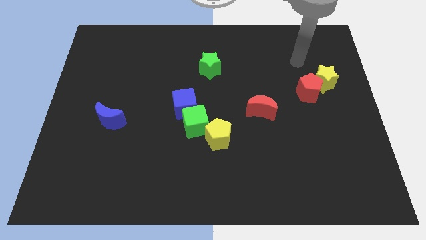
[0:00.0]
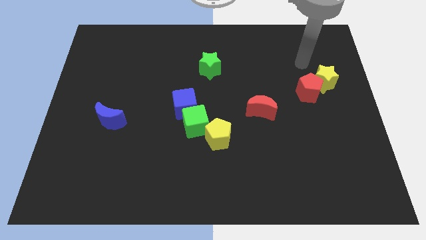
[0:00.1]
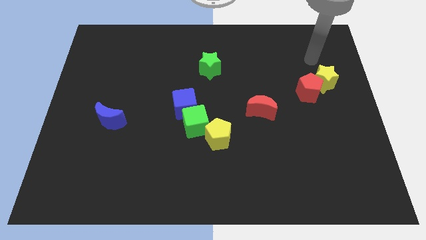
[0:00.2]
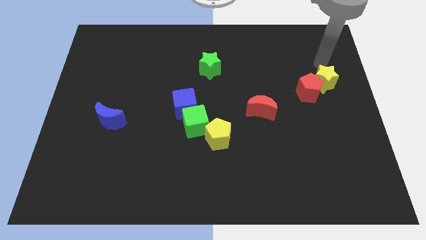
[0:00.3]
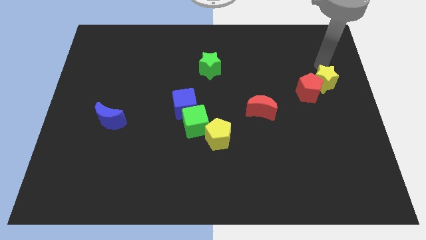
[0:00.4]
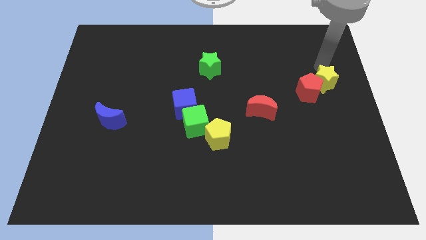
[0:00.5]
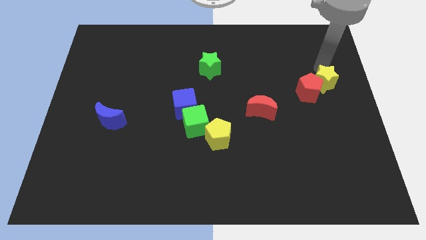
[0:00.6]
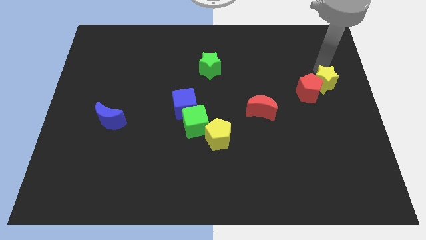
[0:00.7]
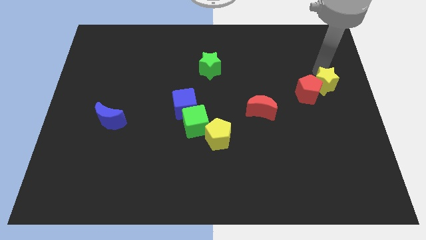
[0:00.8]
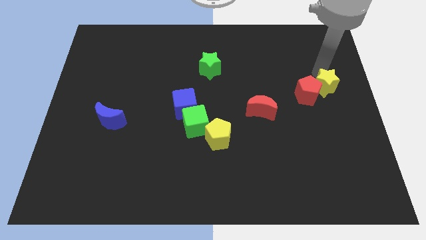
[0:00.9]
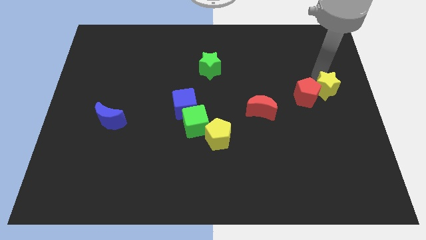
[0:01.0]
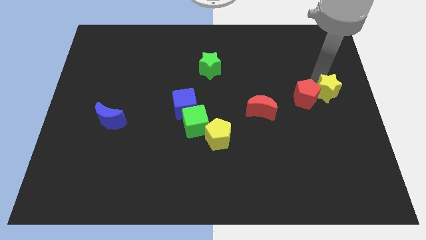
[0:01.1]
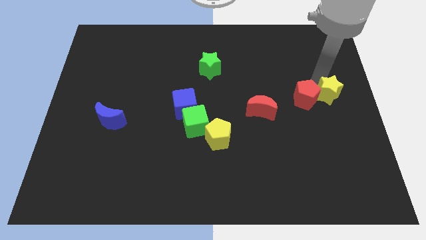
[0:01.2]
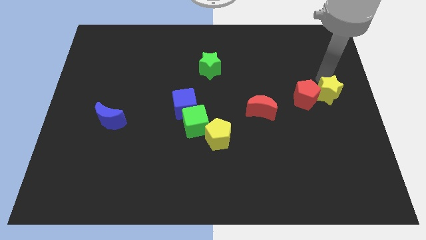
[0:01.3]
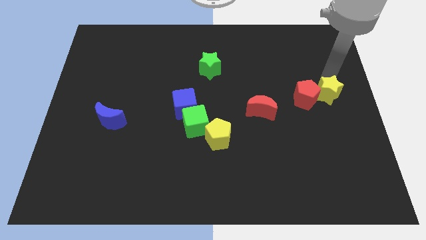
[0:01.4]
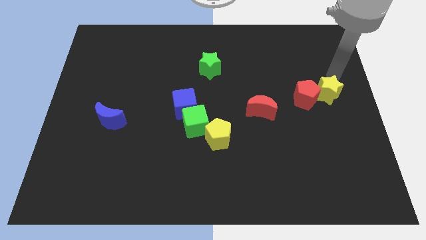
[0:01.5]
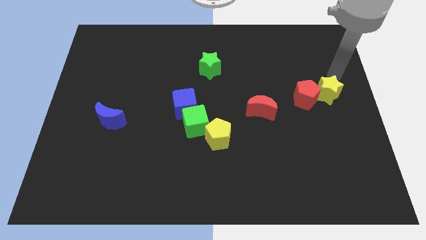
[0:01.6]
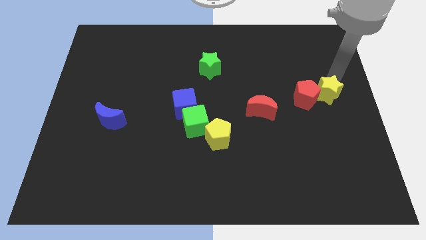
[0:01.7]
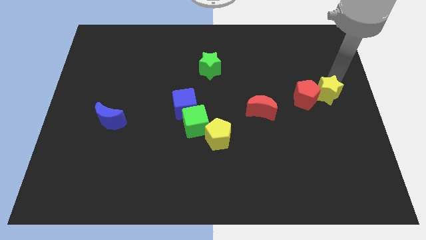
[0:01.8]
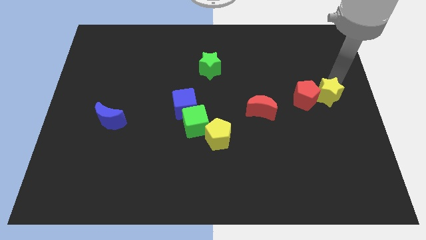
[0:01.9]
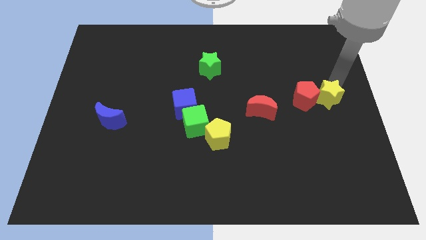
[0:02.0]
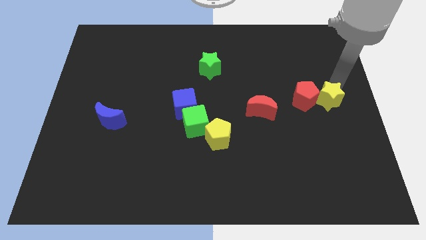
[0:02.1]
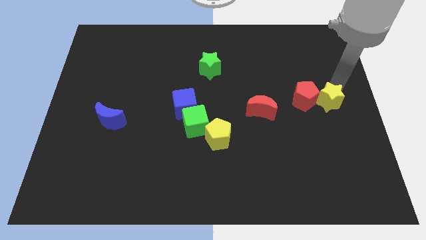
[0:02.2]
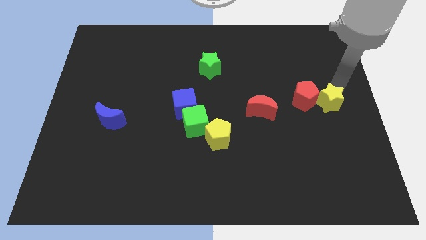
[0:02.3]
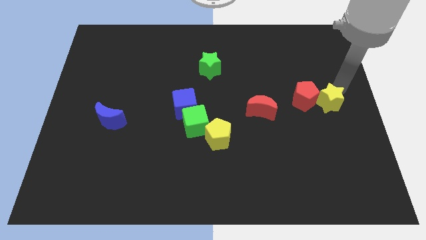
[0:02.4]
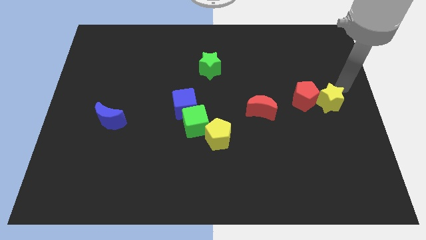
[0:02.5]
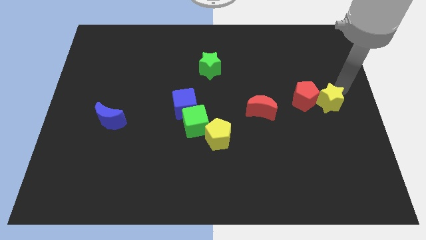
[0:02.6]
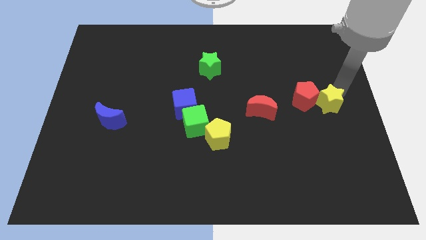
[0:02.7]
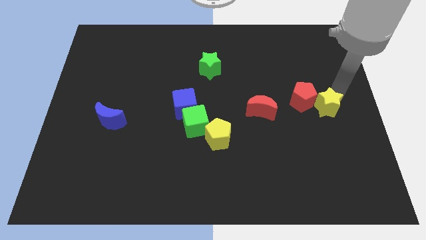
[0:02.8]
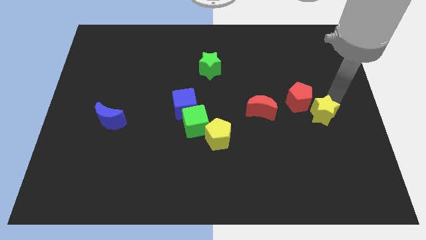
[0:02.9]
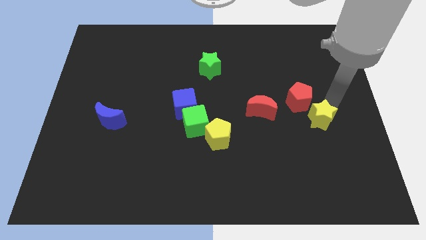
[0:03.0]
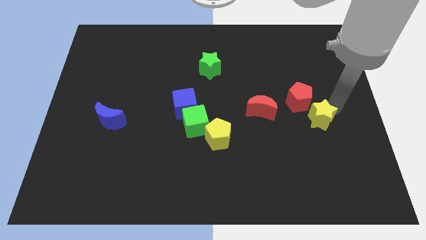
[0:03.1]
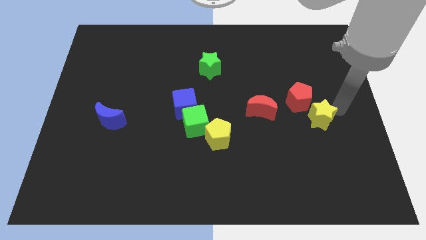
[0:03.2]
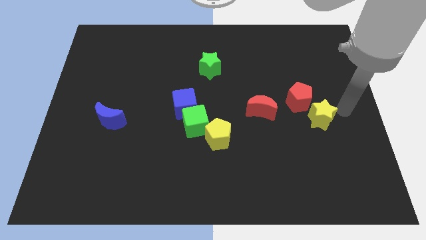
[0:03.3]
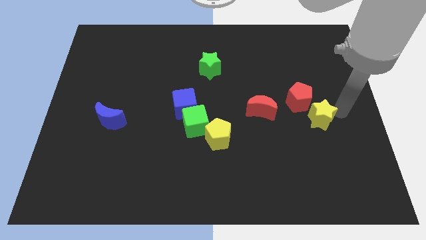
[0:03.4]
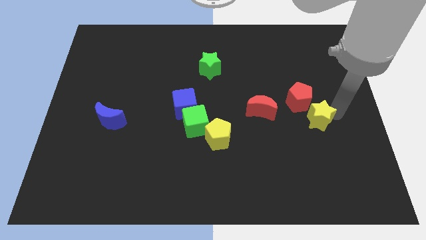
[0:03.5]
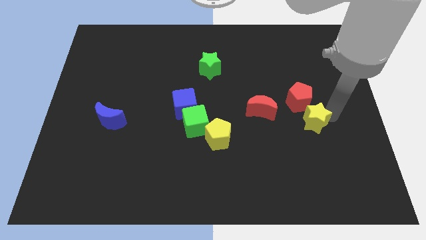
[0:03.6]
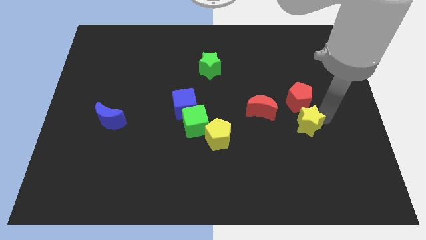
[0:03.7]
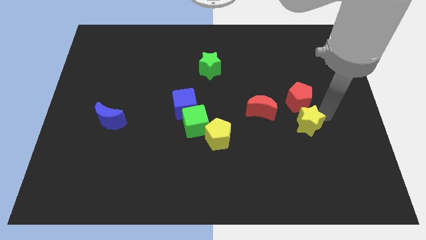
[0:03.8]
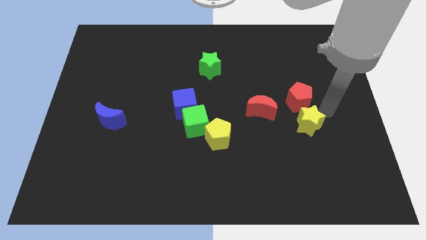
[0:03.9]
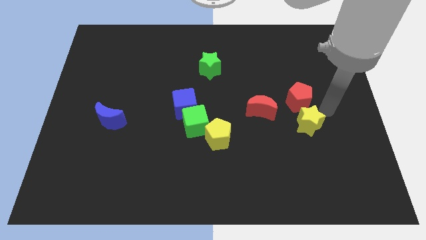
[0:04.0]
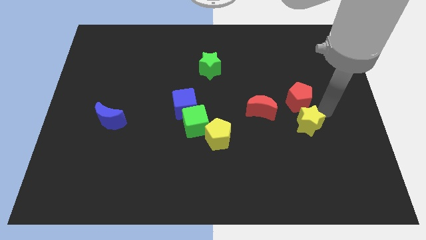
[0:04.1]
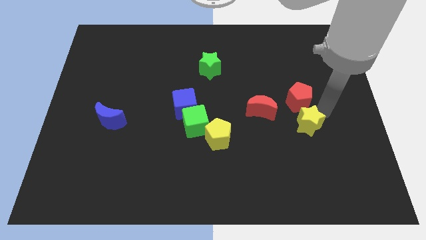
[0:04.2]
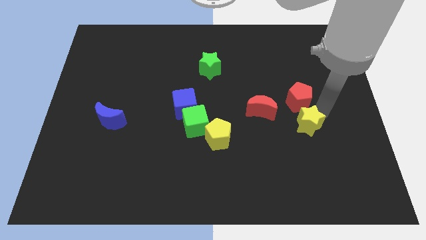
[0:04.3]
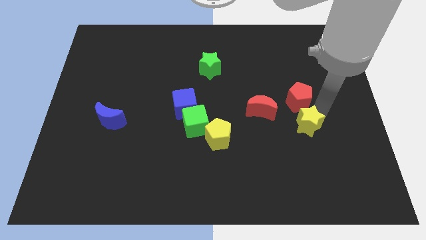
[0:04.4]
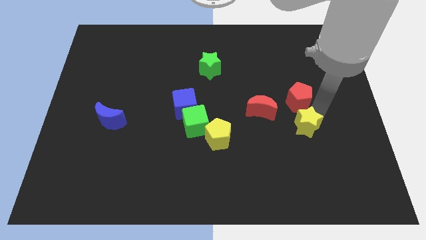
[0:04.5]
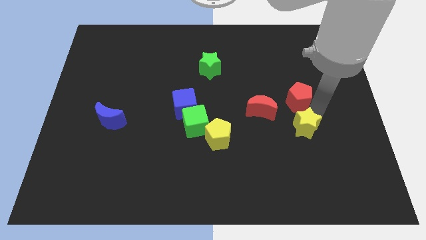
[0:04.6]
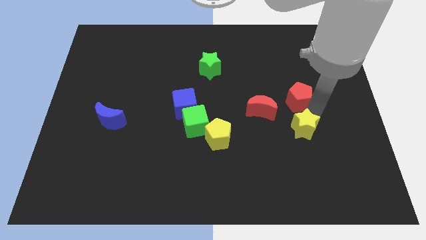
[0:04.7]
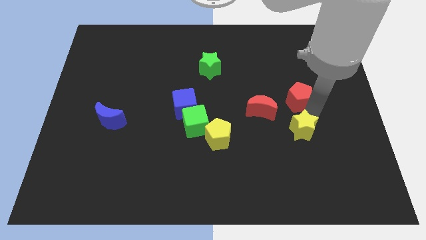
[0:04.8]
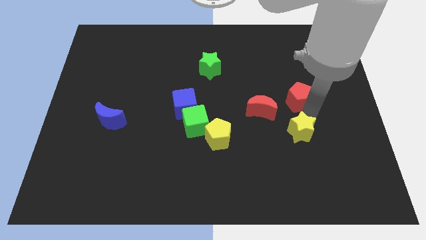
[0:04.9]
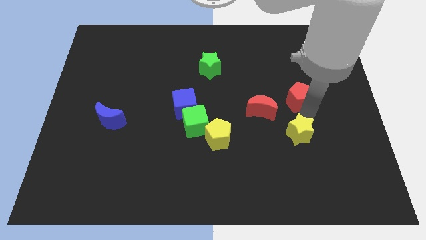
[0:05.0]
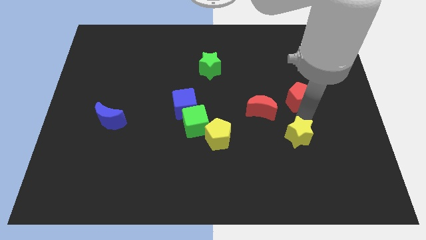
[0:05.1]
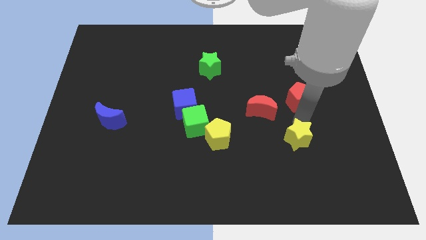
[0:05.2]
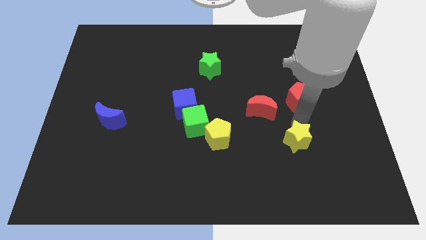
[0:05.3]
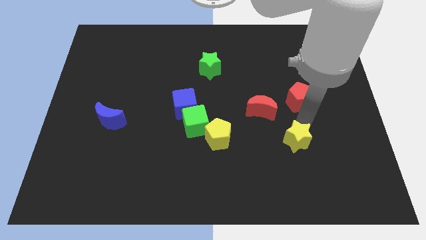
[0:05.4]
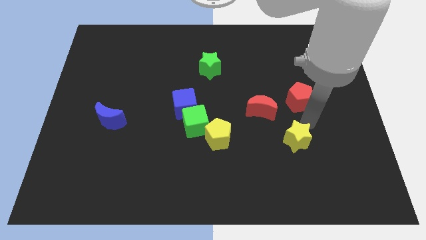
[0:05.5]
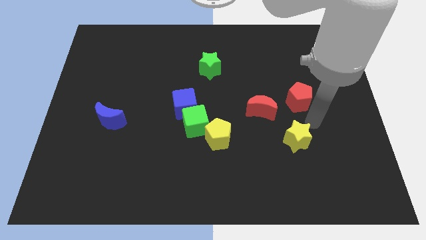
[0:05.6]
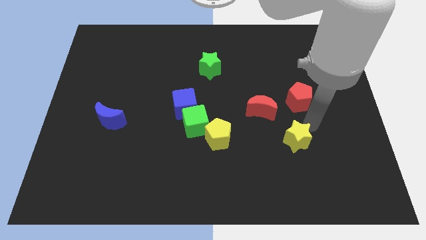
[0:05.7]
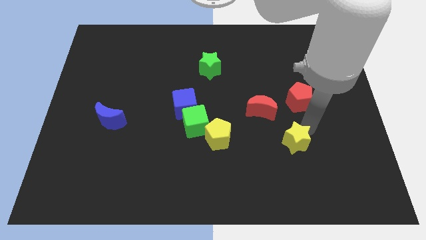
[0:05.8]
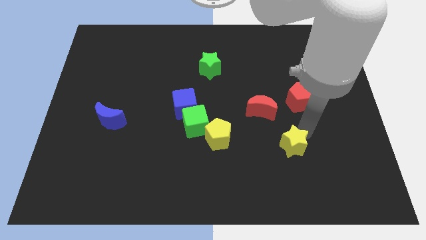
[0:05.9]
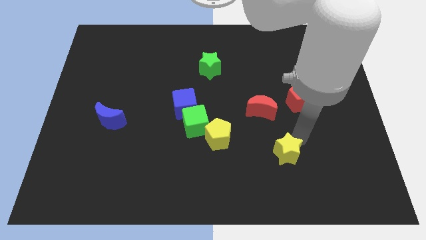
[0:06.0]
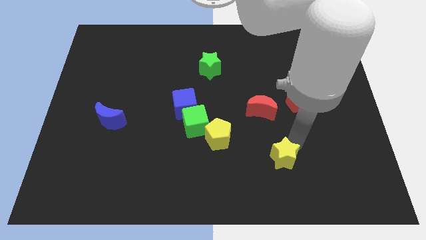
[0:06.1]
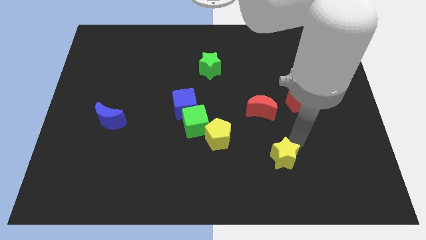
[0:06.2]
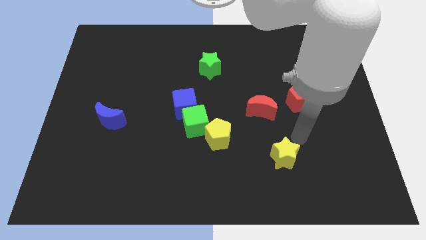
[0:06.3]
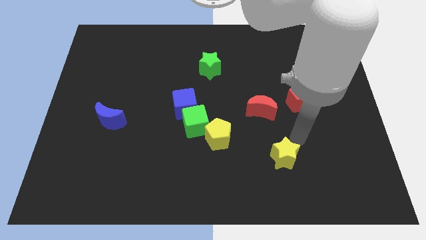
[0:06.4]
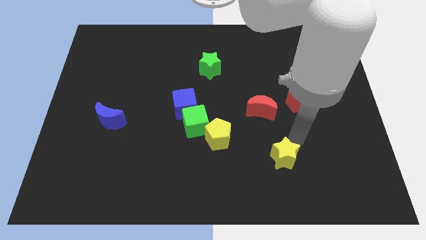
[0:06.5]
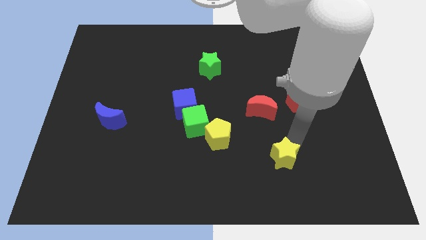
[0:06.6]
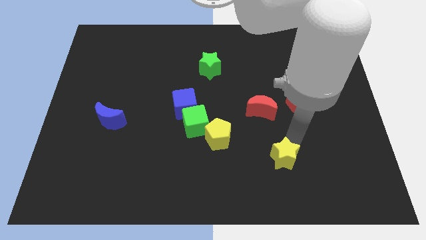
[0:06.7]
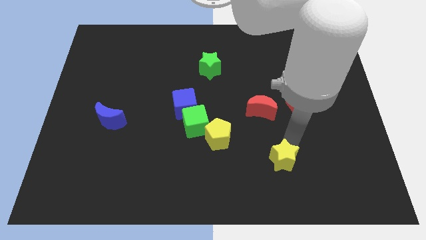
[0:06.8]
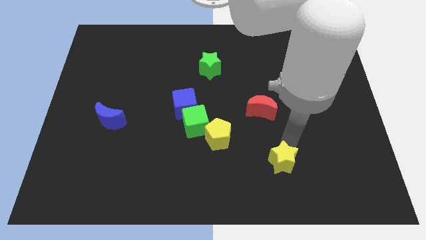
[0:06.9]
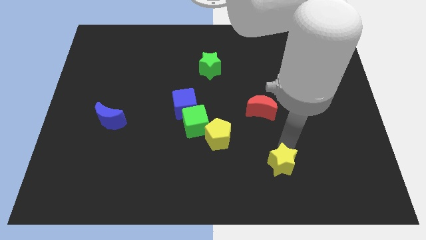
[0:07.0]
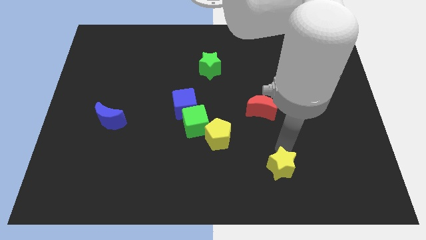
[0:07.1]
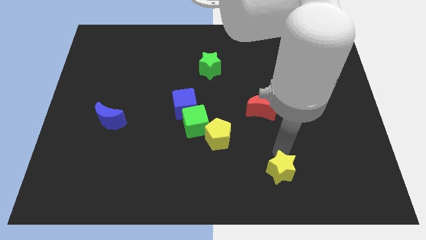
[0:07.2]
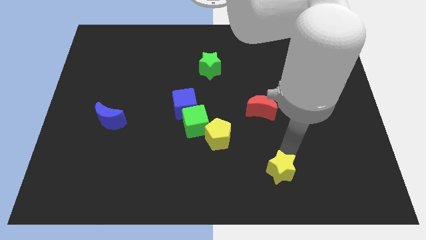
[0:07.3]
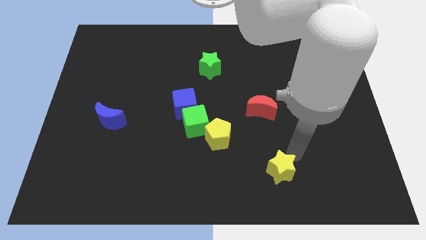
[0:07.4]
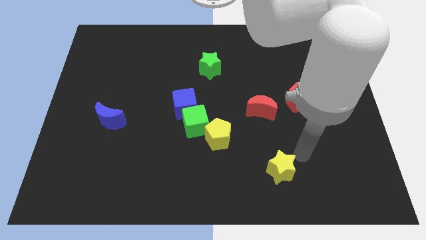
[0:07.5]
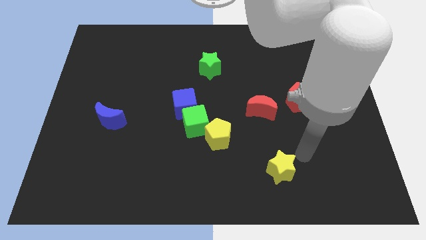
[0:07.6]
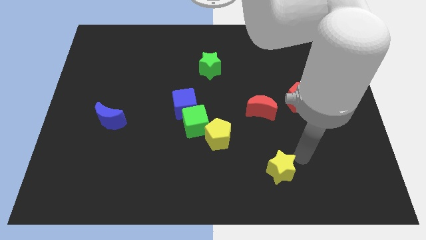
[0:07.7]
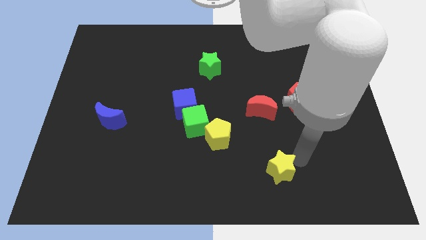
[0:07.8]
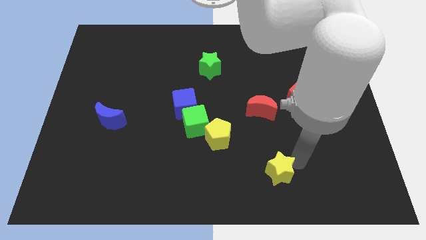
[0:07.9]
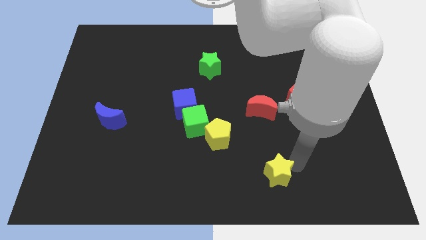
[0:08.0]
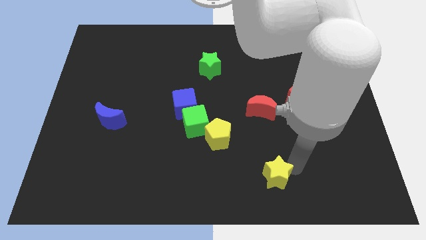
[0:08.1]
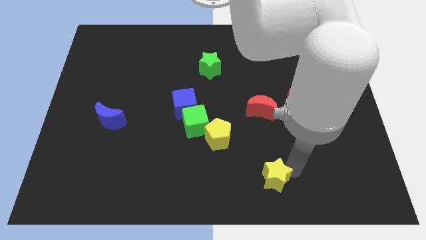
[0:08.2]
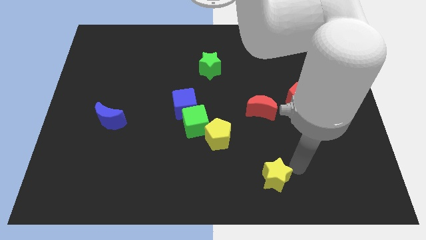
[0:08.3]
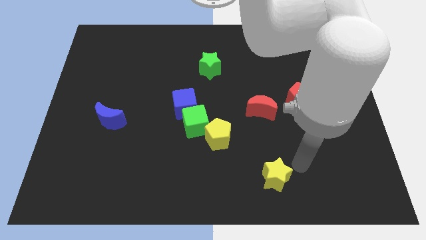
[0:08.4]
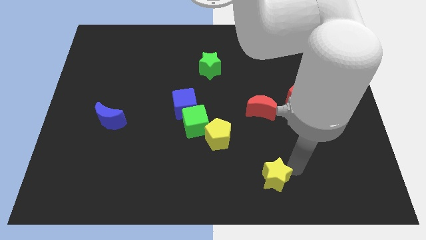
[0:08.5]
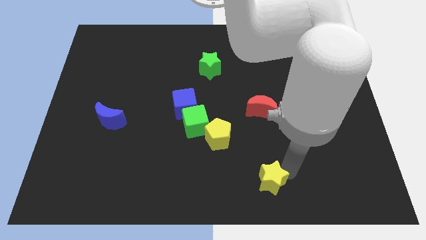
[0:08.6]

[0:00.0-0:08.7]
slide the yellow star to the bottom side
